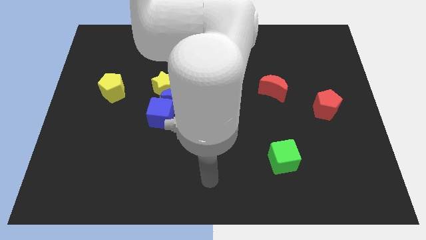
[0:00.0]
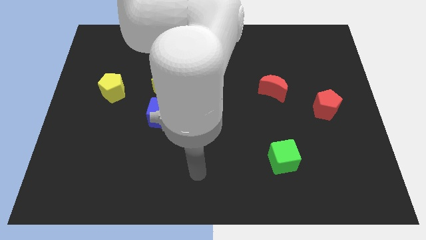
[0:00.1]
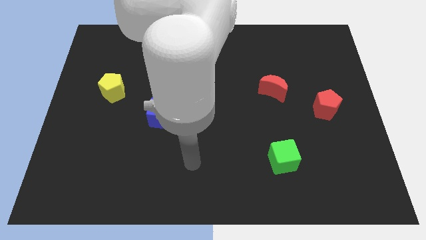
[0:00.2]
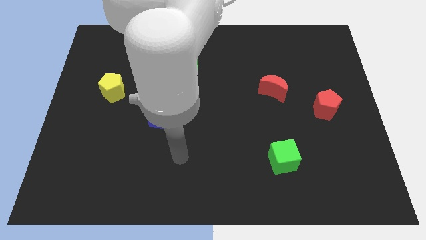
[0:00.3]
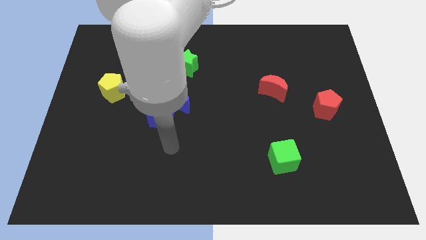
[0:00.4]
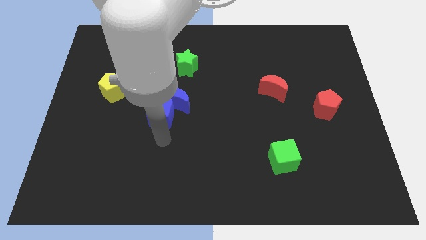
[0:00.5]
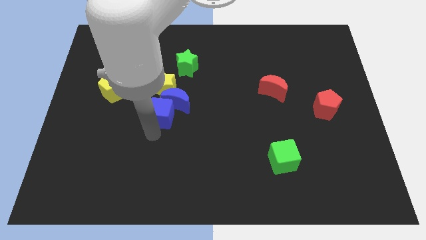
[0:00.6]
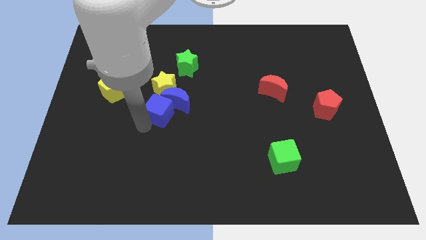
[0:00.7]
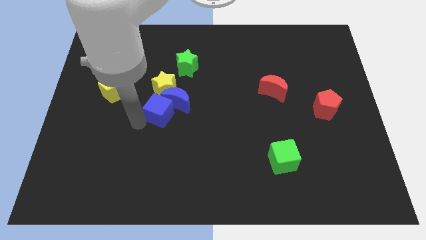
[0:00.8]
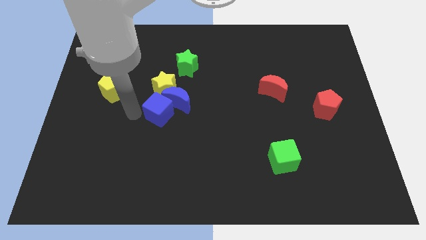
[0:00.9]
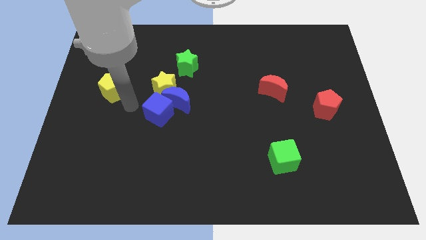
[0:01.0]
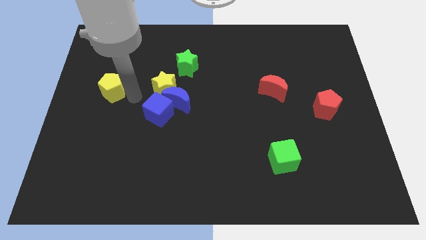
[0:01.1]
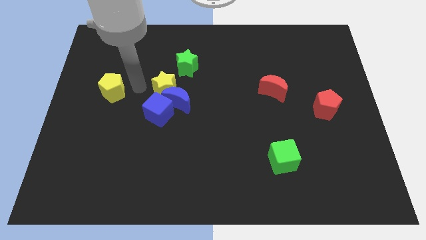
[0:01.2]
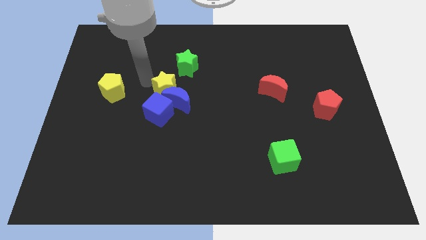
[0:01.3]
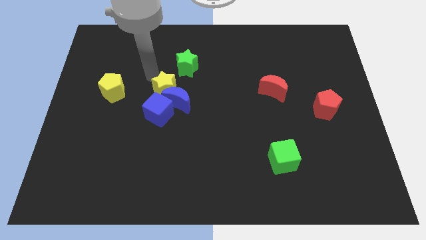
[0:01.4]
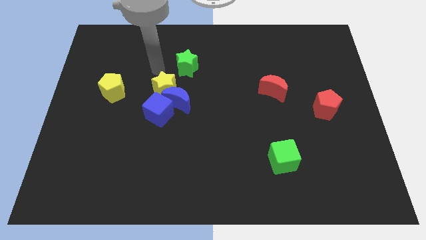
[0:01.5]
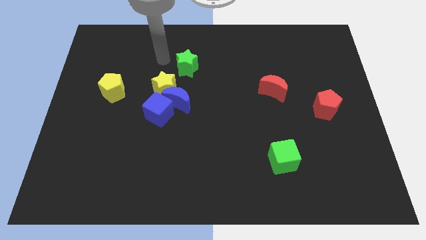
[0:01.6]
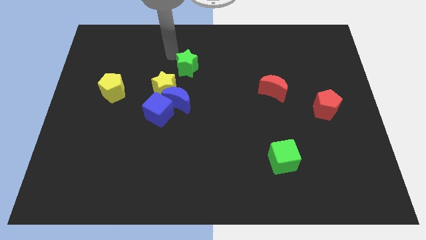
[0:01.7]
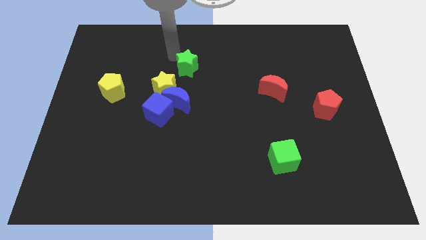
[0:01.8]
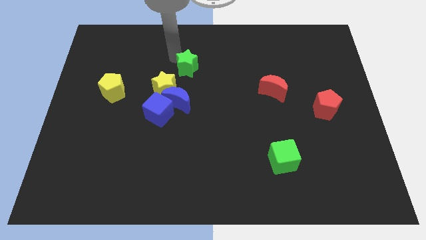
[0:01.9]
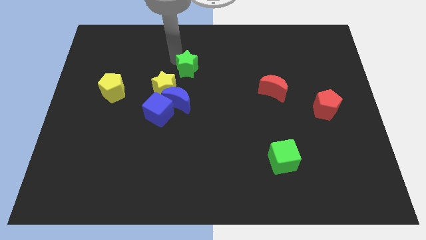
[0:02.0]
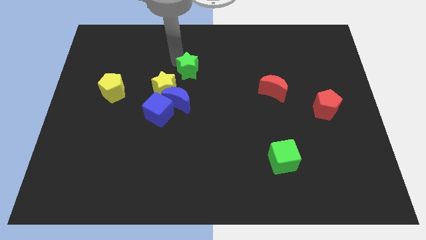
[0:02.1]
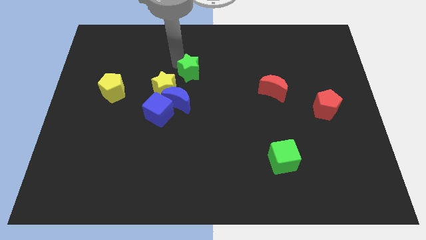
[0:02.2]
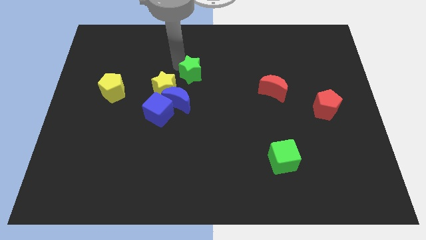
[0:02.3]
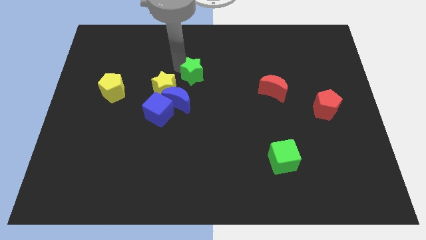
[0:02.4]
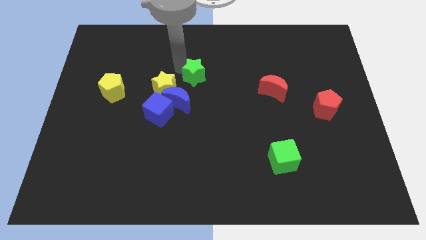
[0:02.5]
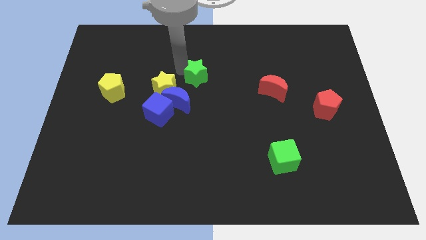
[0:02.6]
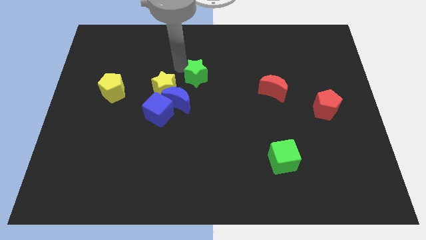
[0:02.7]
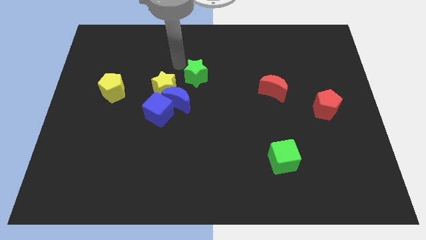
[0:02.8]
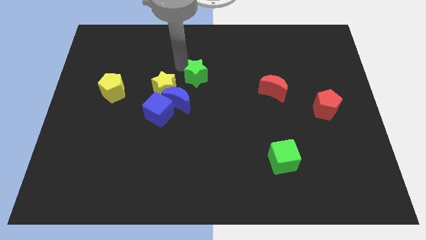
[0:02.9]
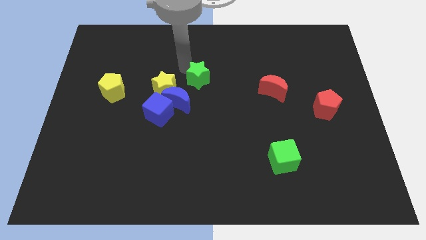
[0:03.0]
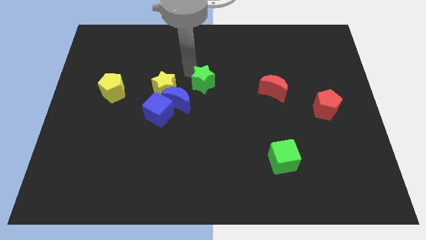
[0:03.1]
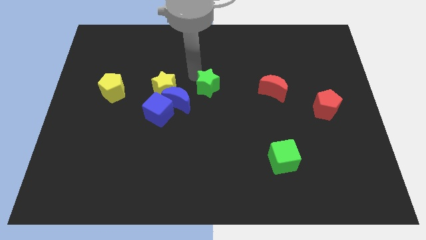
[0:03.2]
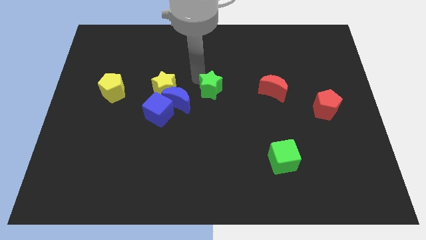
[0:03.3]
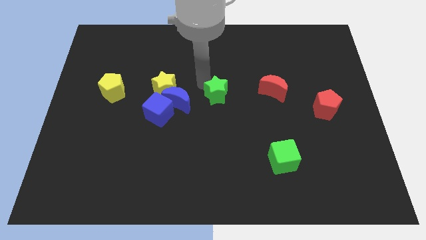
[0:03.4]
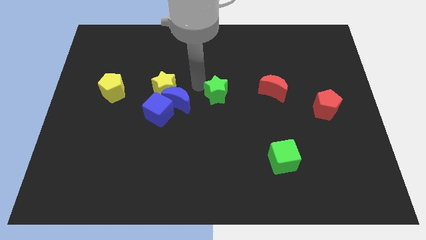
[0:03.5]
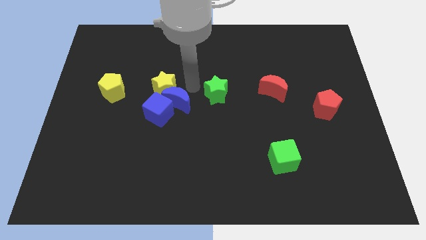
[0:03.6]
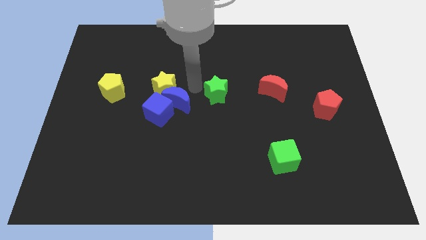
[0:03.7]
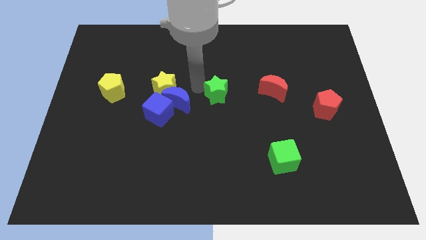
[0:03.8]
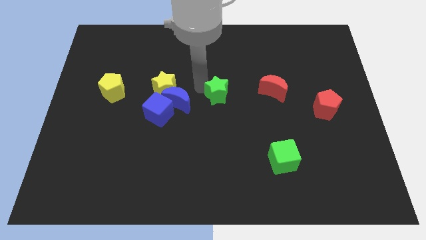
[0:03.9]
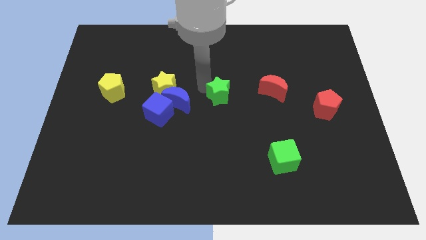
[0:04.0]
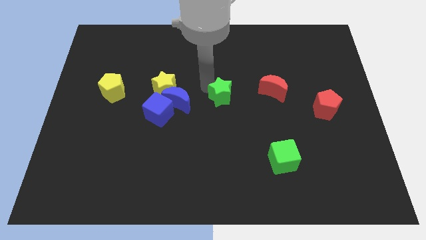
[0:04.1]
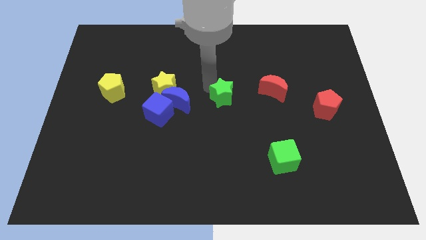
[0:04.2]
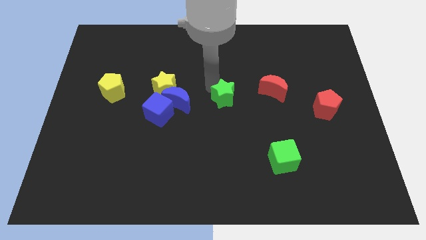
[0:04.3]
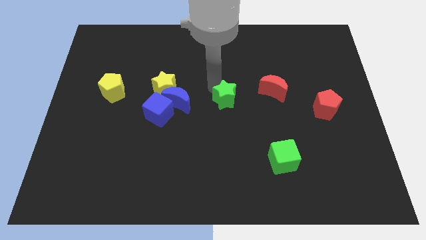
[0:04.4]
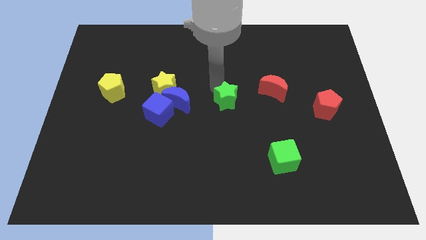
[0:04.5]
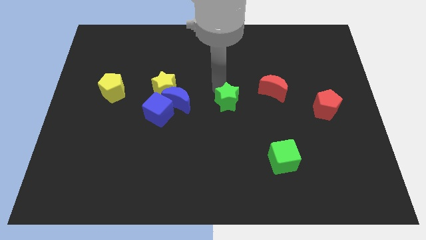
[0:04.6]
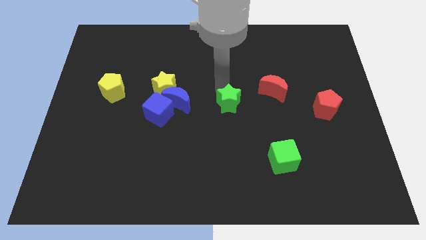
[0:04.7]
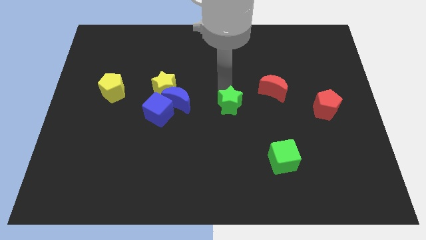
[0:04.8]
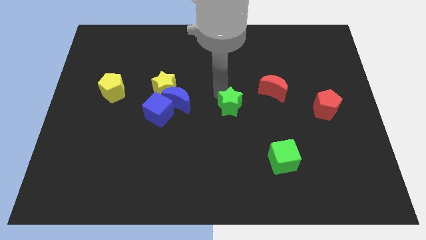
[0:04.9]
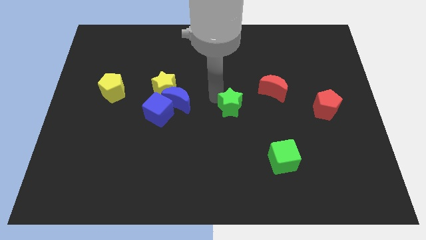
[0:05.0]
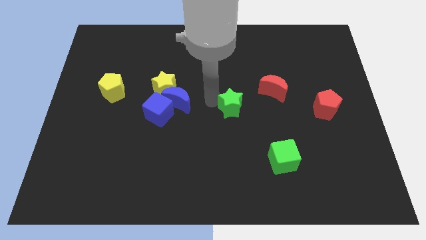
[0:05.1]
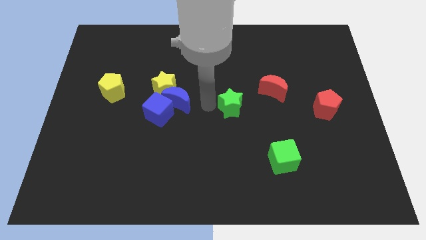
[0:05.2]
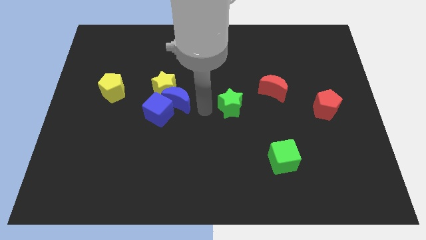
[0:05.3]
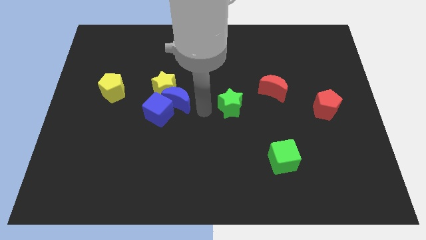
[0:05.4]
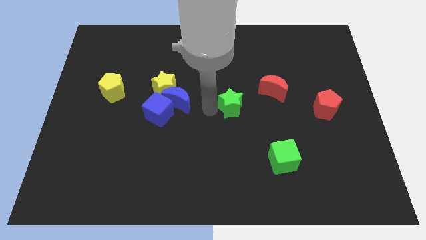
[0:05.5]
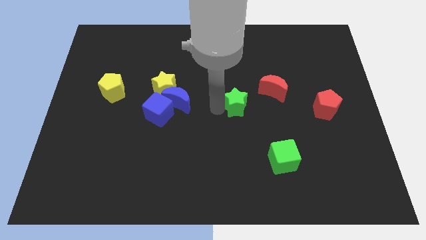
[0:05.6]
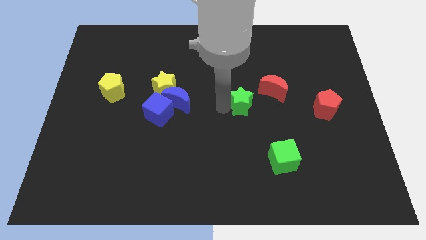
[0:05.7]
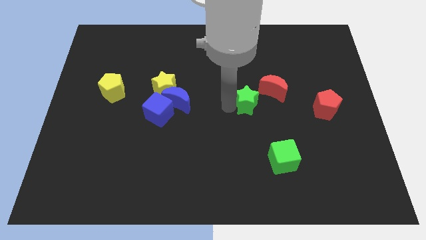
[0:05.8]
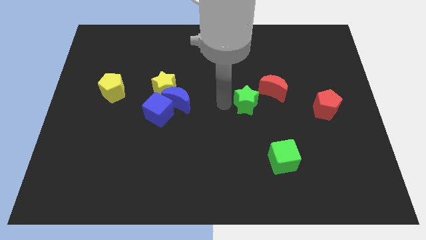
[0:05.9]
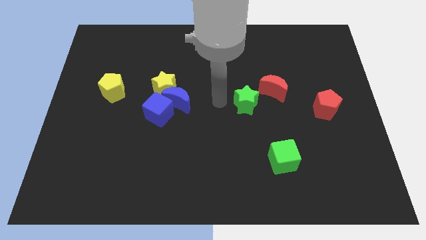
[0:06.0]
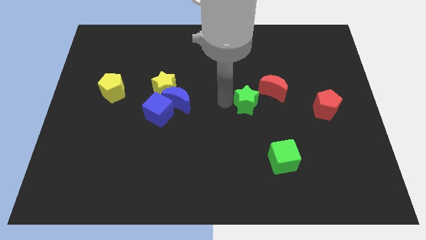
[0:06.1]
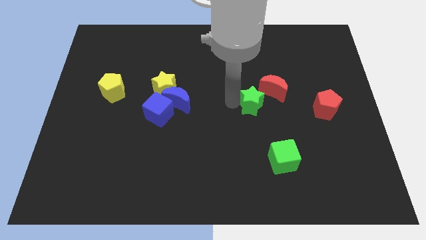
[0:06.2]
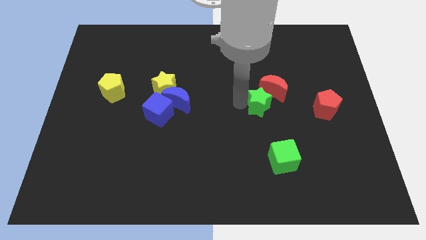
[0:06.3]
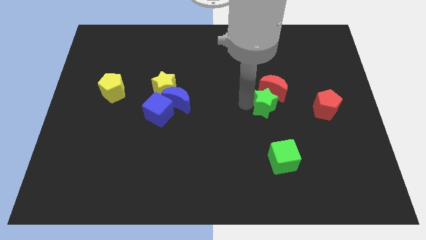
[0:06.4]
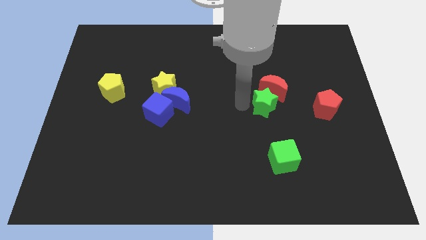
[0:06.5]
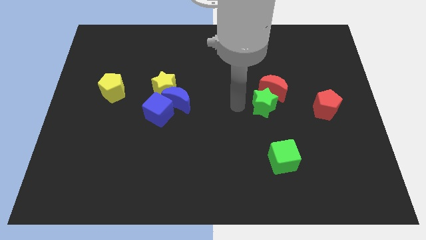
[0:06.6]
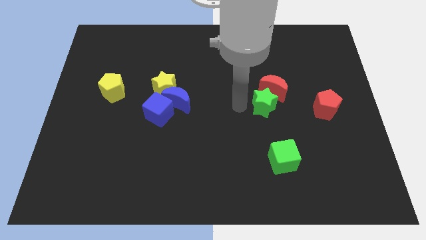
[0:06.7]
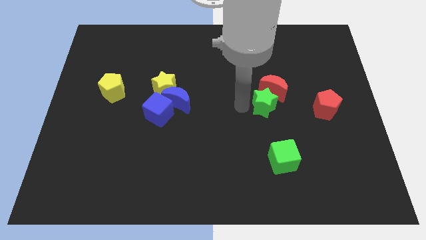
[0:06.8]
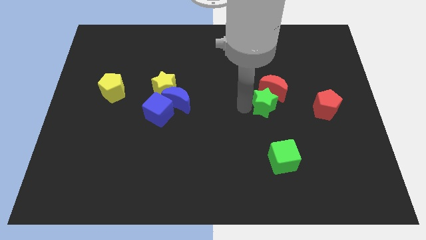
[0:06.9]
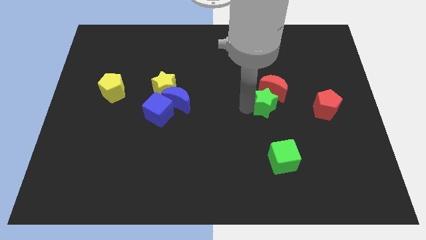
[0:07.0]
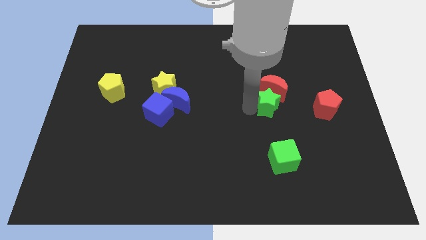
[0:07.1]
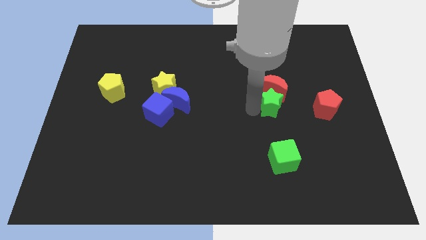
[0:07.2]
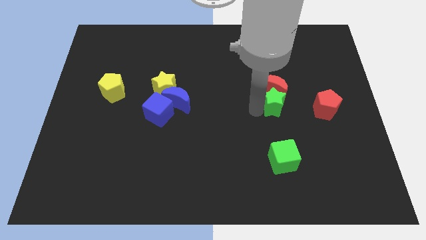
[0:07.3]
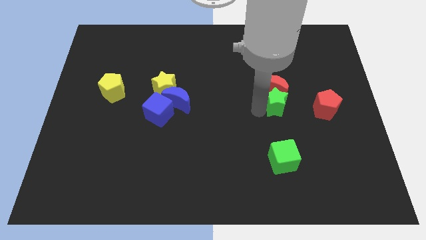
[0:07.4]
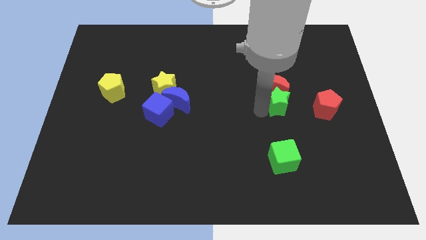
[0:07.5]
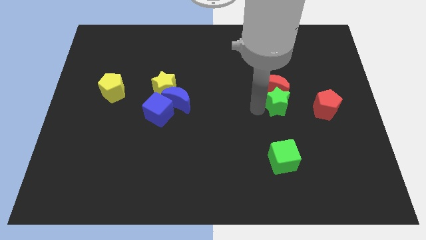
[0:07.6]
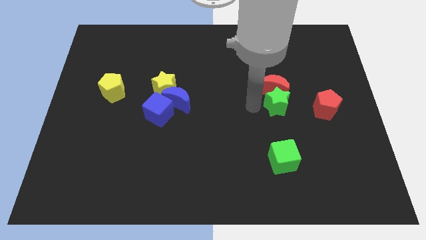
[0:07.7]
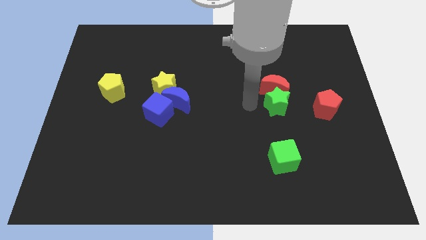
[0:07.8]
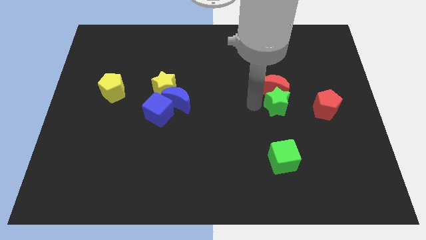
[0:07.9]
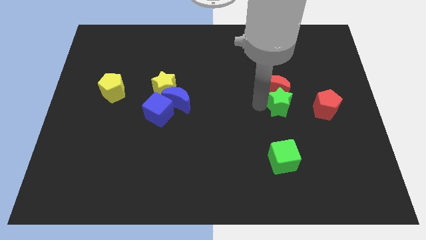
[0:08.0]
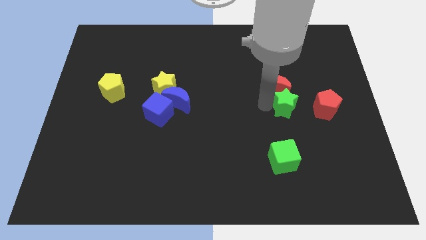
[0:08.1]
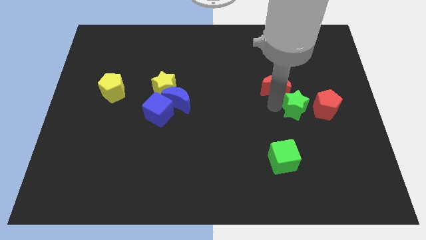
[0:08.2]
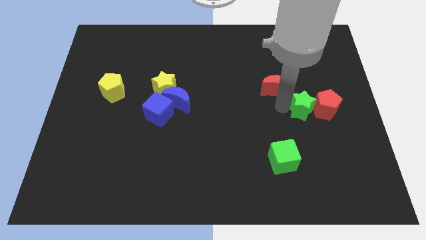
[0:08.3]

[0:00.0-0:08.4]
put the green star close to the red pentagon
